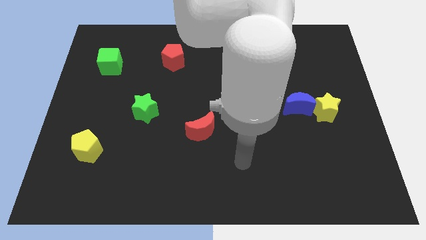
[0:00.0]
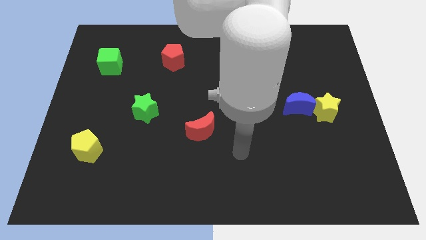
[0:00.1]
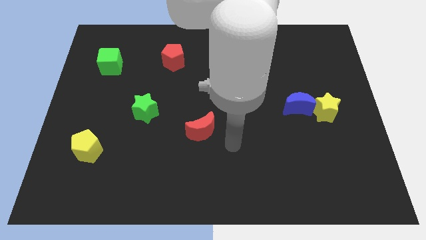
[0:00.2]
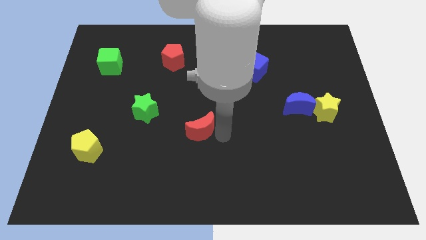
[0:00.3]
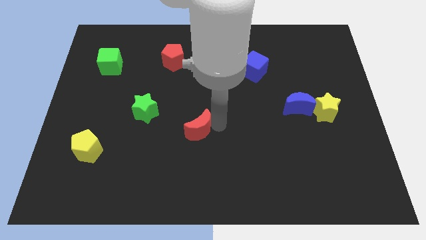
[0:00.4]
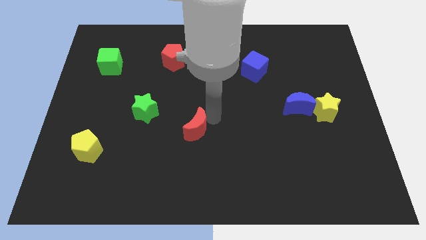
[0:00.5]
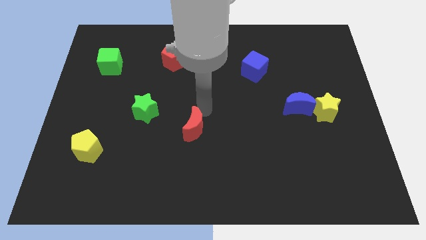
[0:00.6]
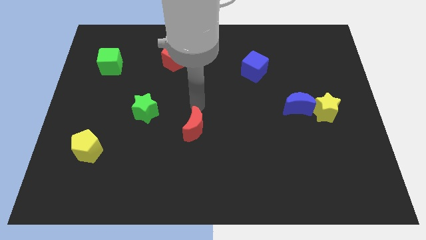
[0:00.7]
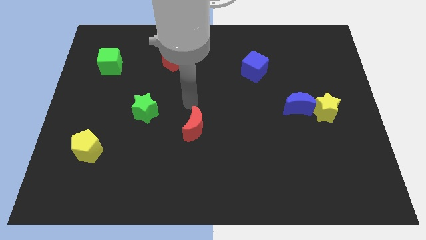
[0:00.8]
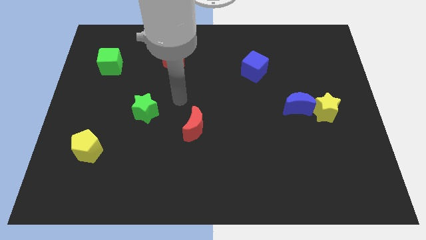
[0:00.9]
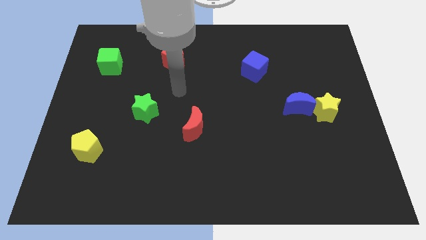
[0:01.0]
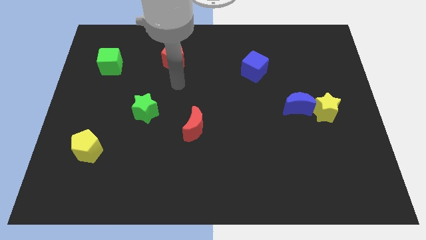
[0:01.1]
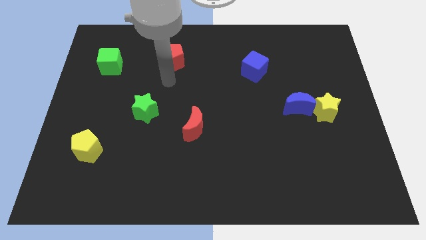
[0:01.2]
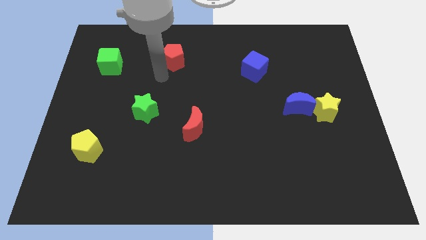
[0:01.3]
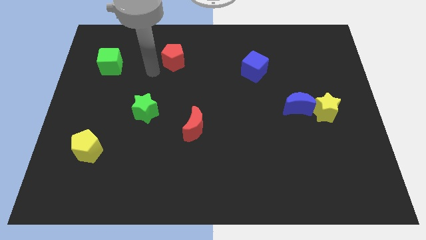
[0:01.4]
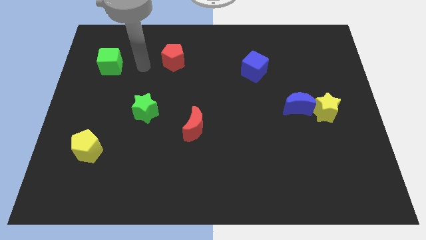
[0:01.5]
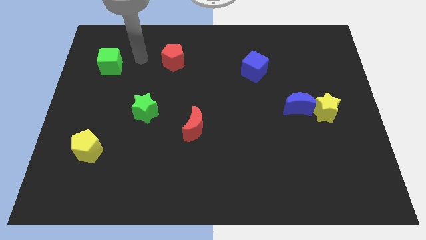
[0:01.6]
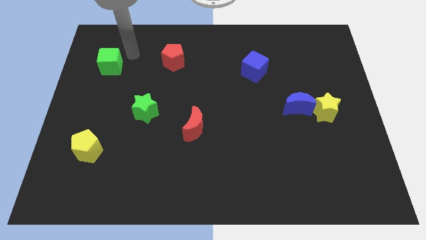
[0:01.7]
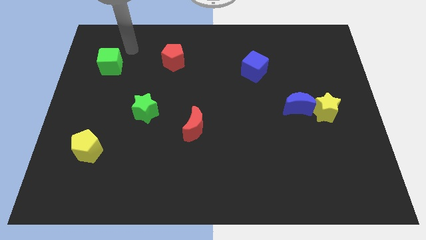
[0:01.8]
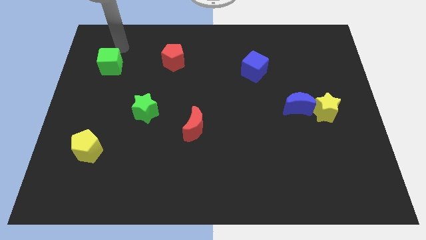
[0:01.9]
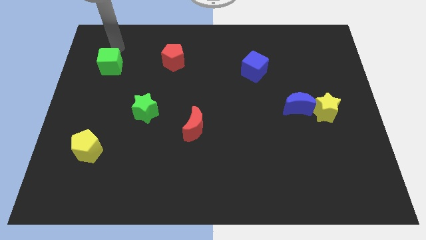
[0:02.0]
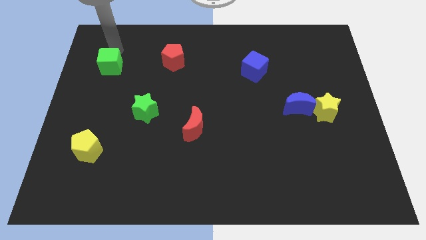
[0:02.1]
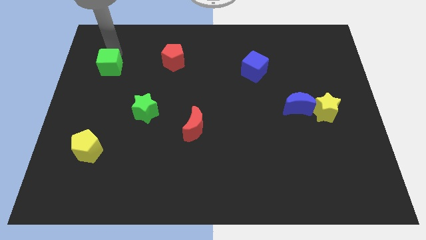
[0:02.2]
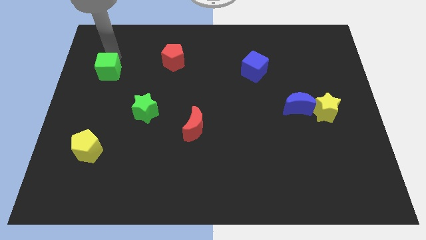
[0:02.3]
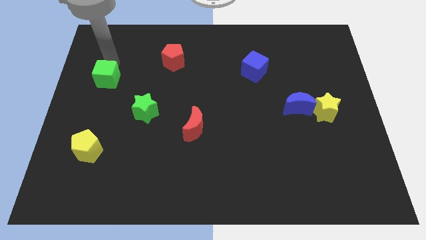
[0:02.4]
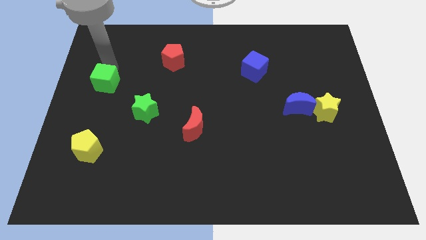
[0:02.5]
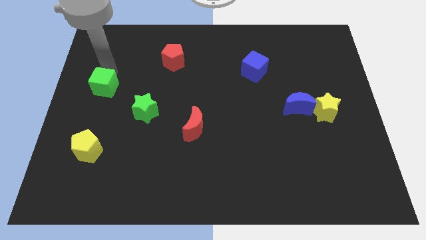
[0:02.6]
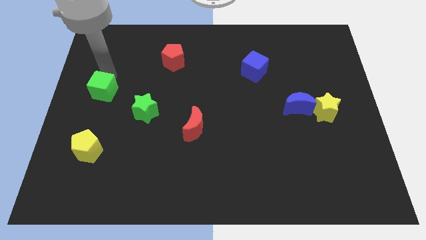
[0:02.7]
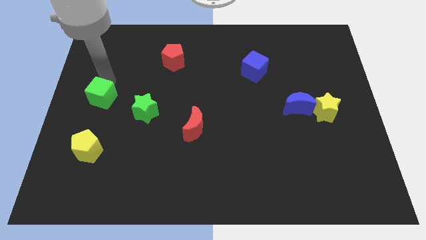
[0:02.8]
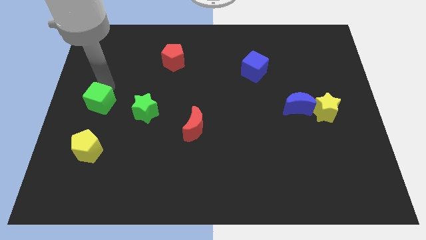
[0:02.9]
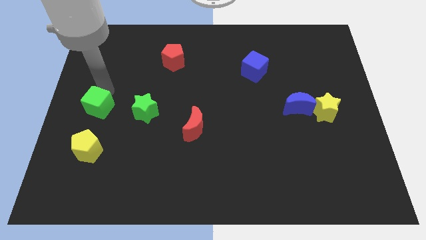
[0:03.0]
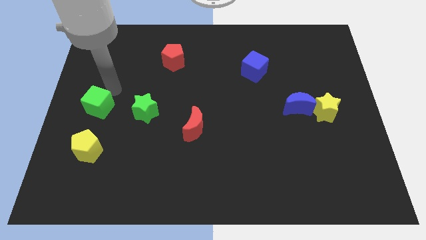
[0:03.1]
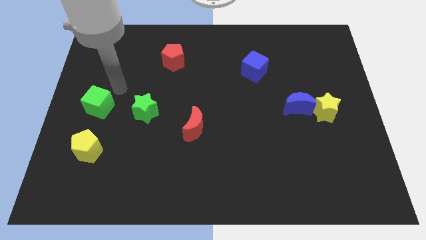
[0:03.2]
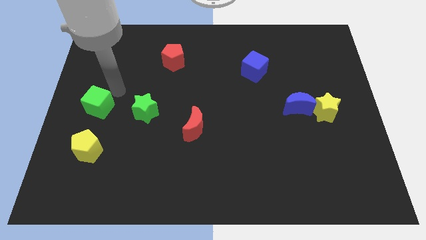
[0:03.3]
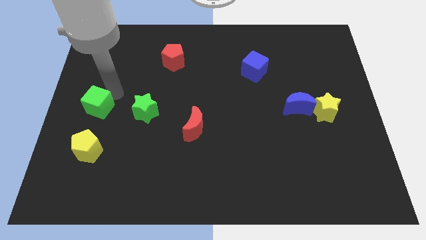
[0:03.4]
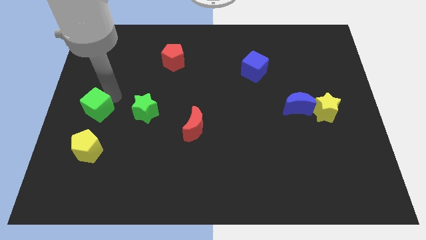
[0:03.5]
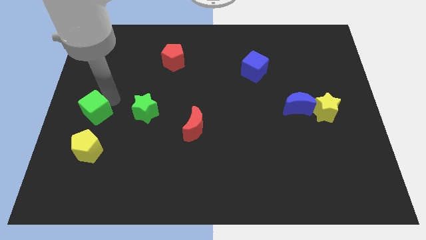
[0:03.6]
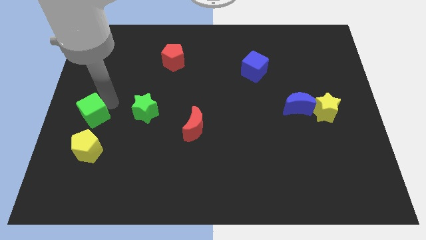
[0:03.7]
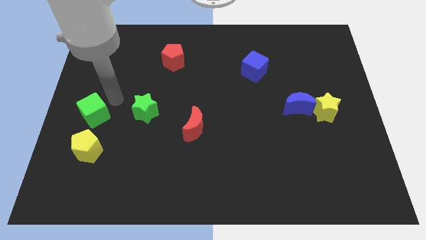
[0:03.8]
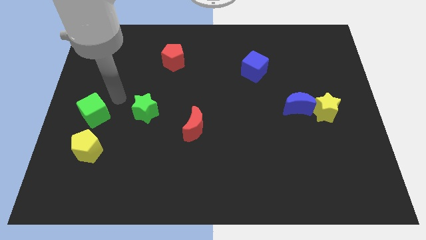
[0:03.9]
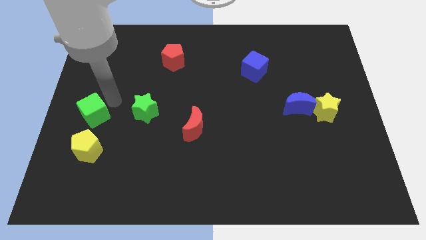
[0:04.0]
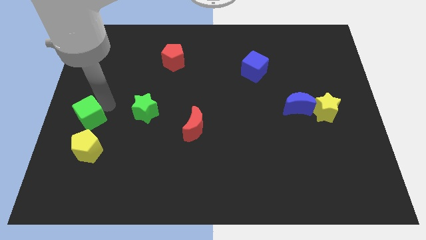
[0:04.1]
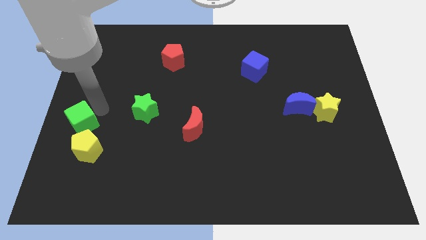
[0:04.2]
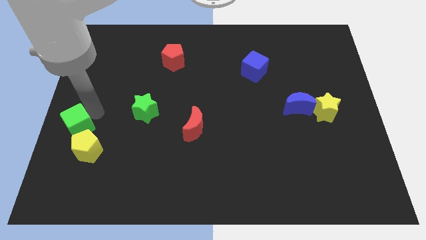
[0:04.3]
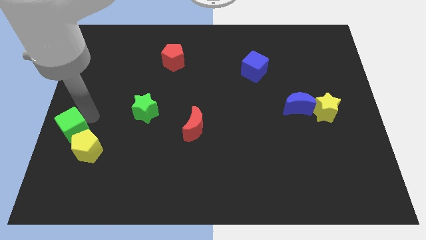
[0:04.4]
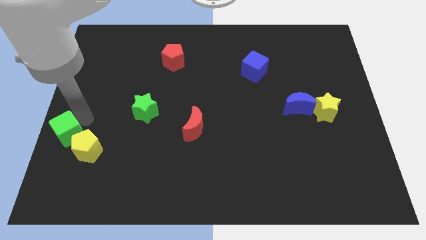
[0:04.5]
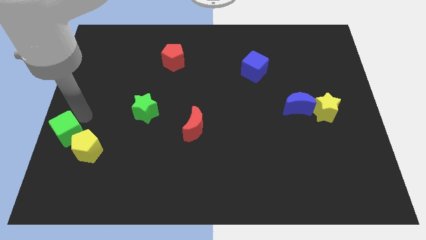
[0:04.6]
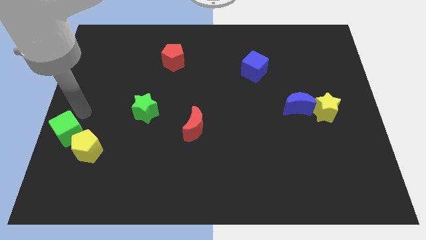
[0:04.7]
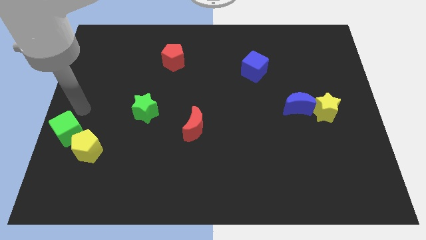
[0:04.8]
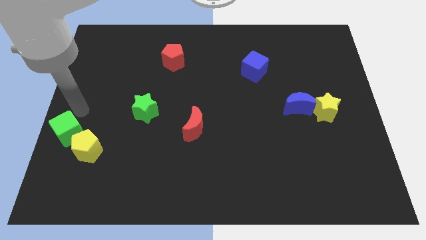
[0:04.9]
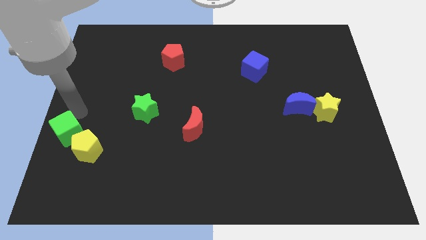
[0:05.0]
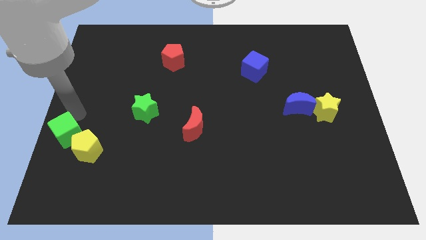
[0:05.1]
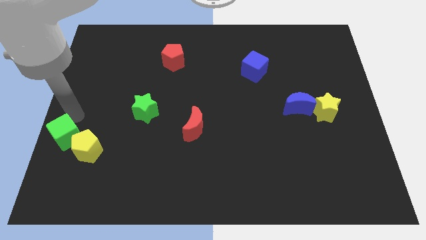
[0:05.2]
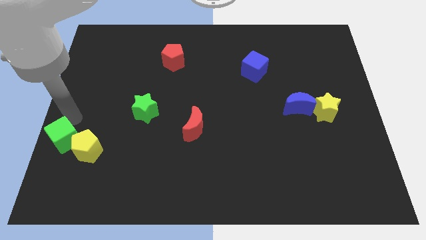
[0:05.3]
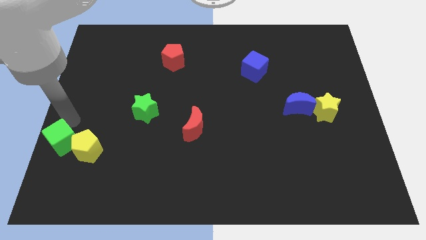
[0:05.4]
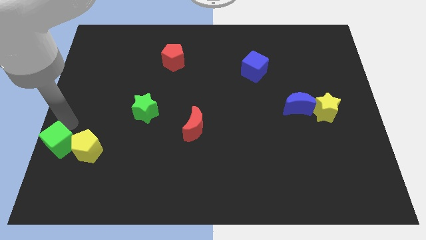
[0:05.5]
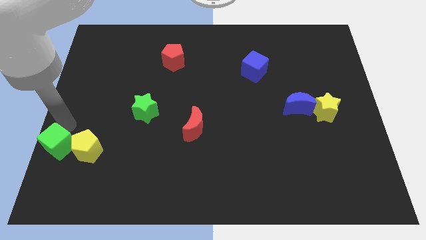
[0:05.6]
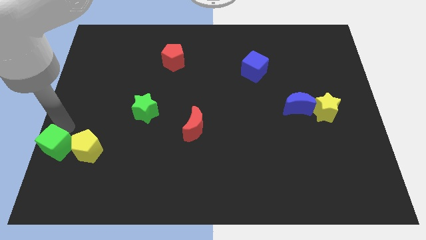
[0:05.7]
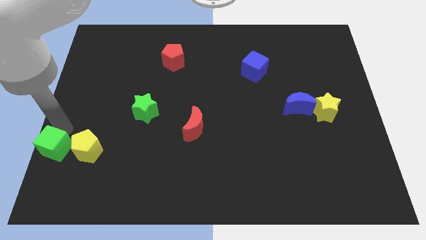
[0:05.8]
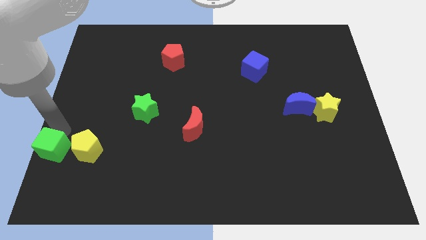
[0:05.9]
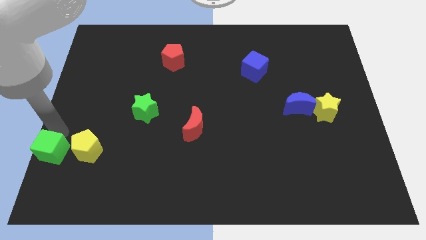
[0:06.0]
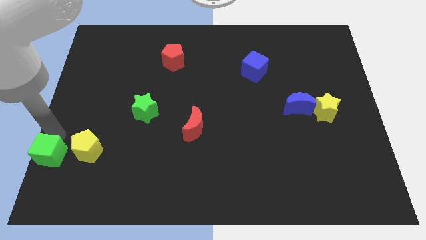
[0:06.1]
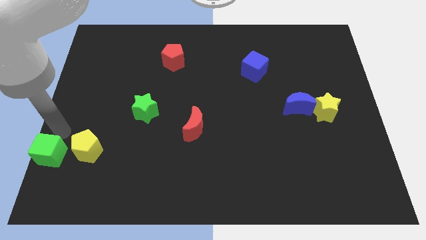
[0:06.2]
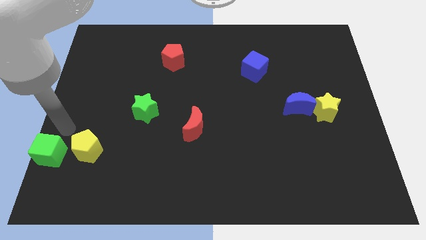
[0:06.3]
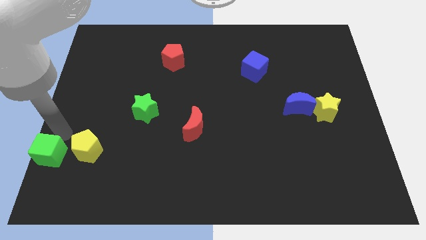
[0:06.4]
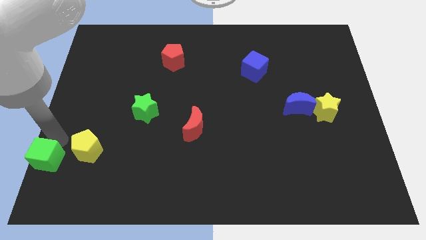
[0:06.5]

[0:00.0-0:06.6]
slide the green cube to the lower left corner
